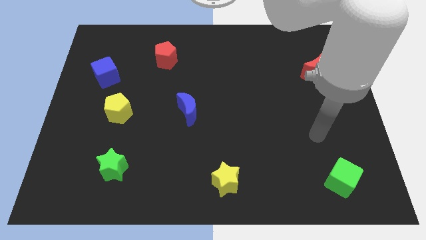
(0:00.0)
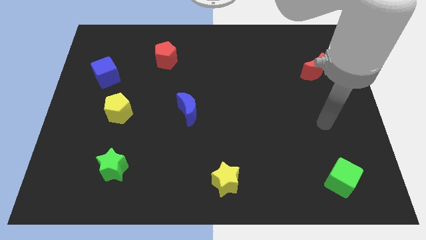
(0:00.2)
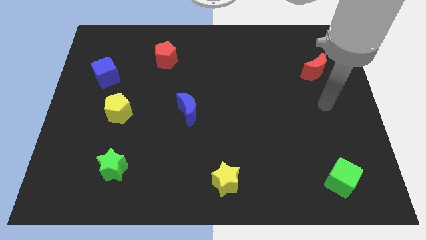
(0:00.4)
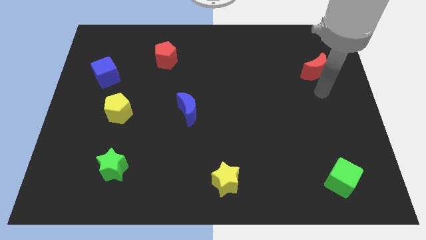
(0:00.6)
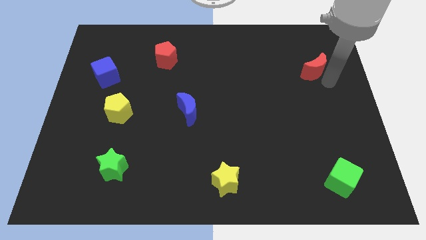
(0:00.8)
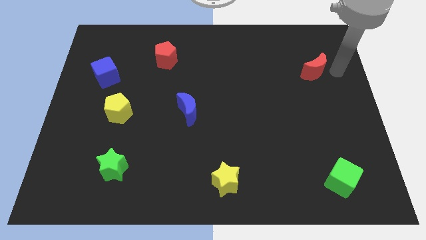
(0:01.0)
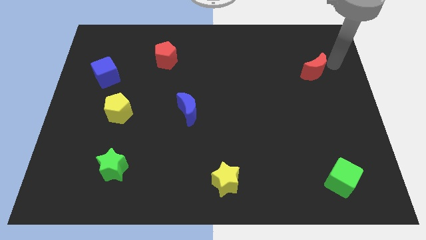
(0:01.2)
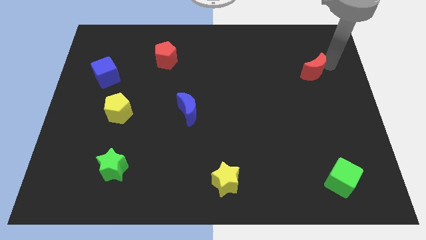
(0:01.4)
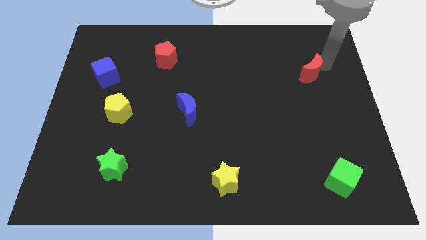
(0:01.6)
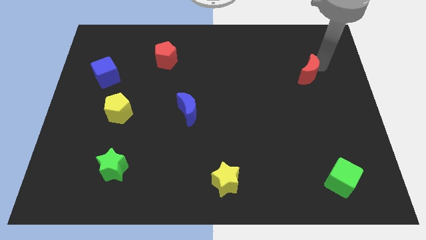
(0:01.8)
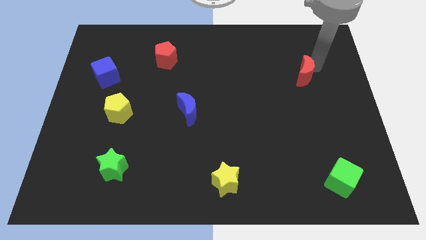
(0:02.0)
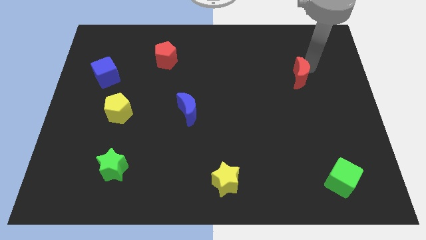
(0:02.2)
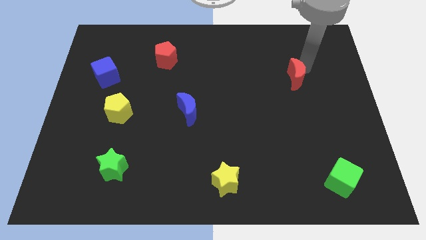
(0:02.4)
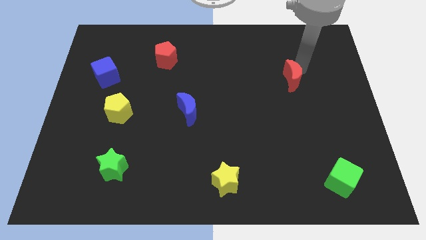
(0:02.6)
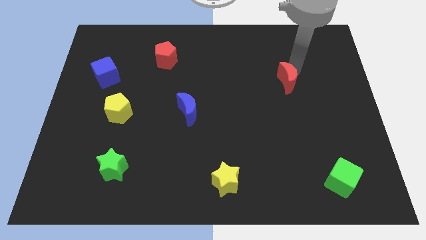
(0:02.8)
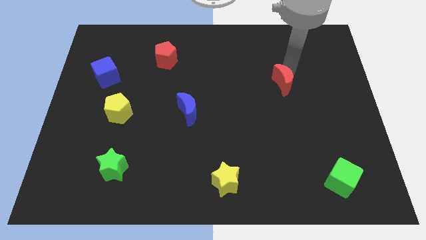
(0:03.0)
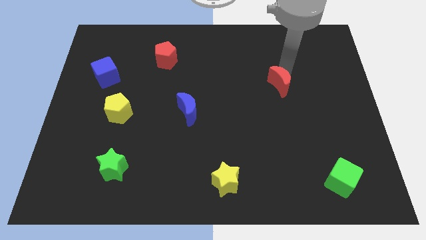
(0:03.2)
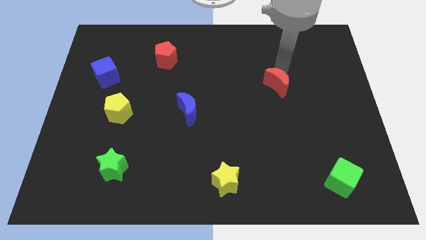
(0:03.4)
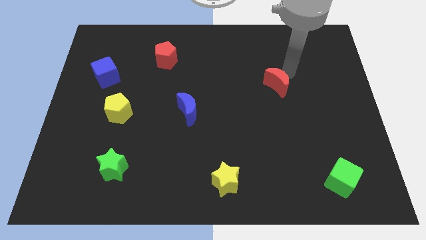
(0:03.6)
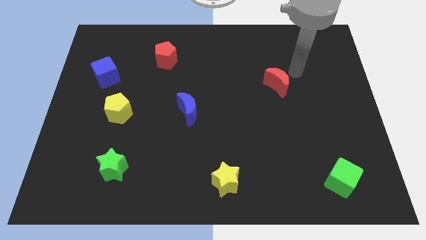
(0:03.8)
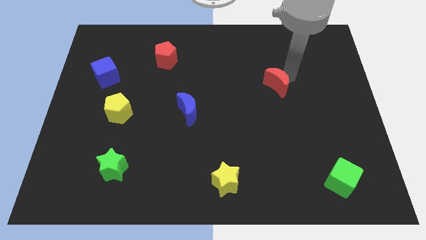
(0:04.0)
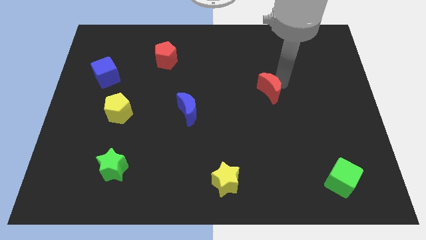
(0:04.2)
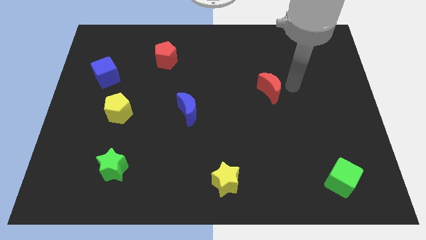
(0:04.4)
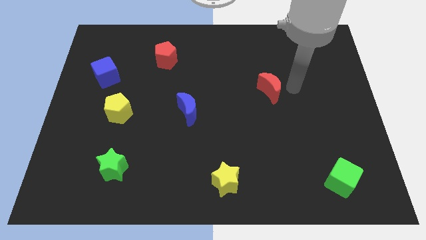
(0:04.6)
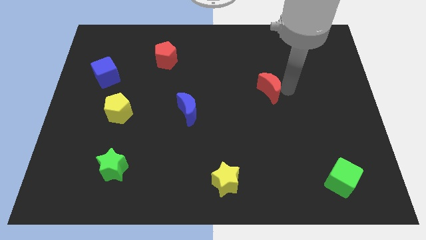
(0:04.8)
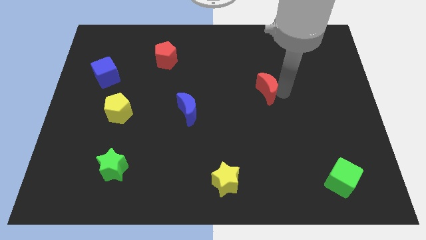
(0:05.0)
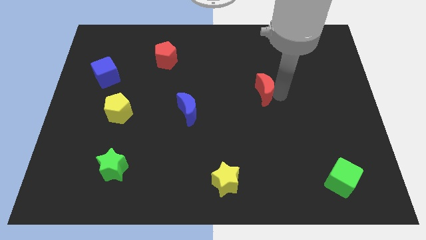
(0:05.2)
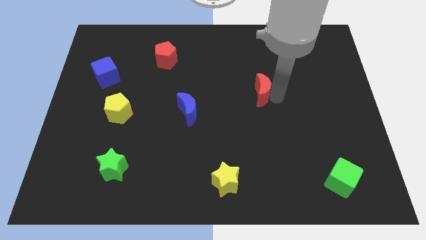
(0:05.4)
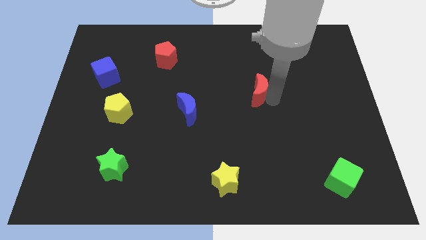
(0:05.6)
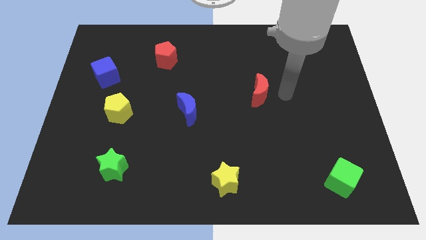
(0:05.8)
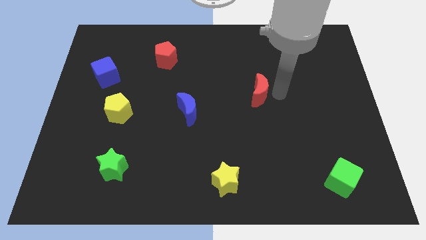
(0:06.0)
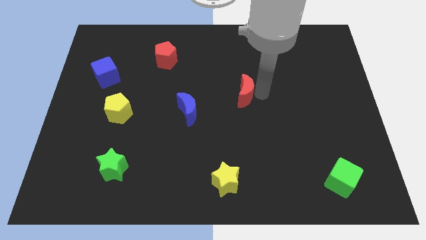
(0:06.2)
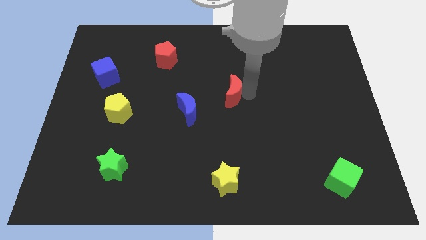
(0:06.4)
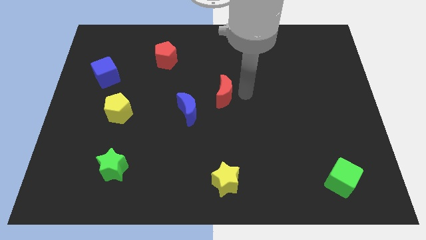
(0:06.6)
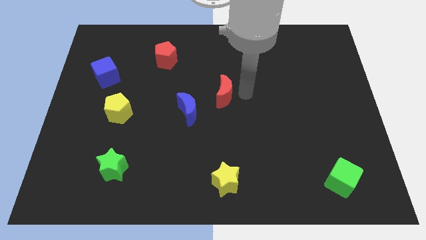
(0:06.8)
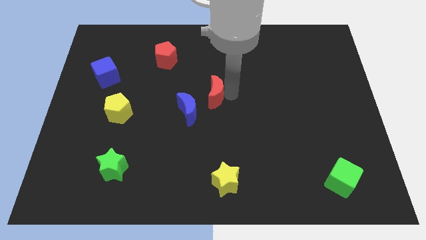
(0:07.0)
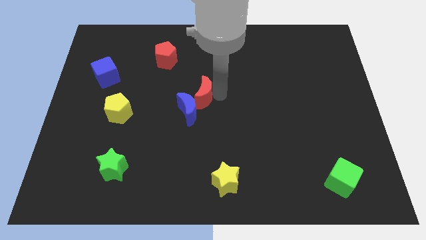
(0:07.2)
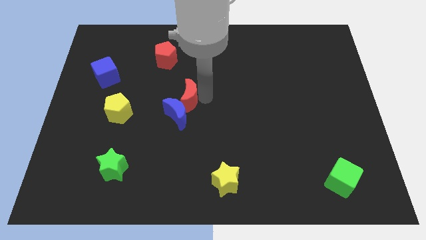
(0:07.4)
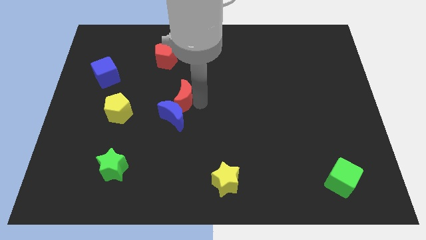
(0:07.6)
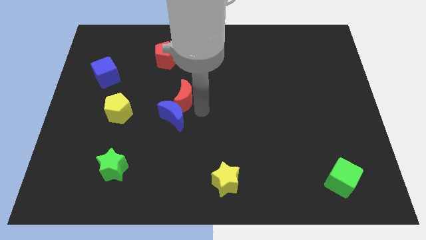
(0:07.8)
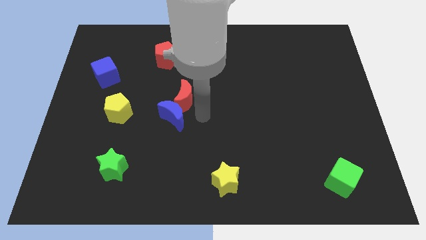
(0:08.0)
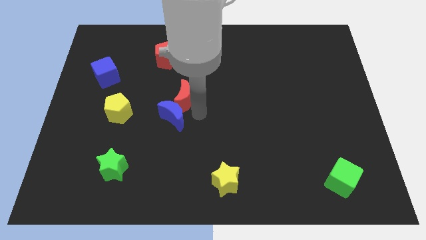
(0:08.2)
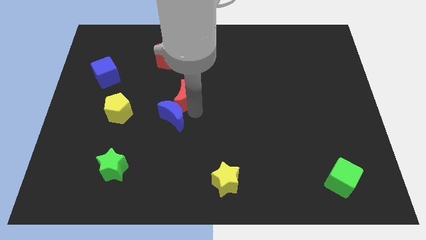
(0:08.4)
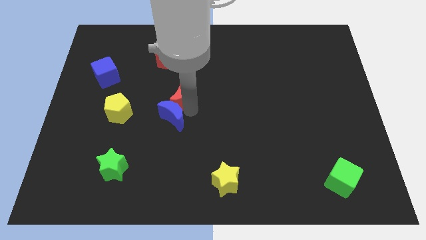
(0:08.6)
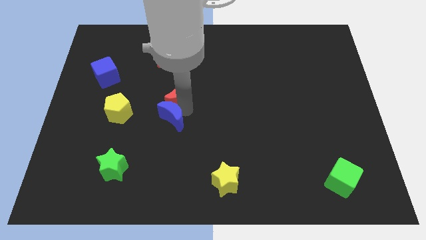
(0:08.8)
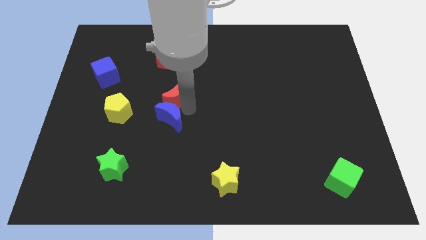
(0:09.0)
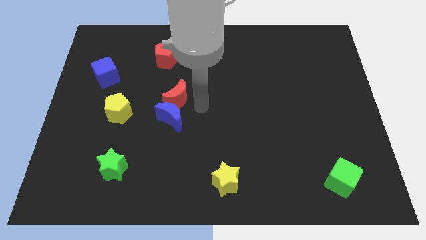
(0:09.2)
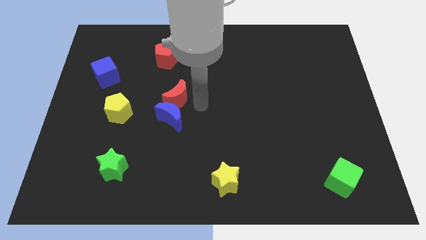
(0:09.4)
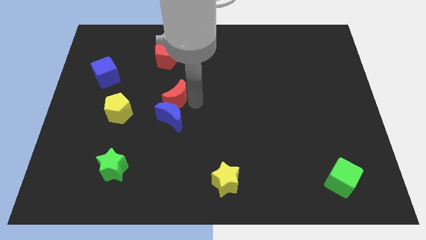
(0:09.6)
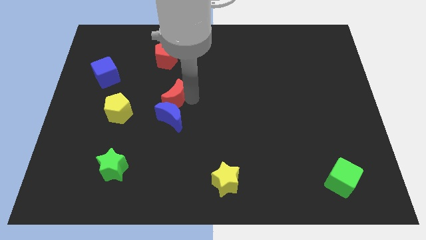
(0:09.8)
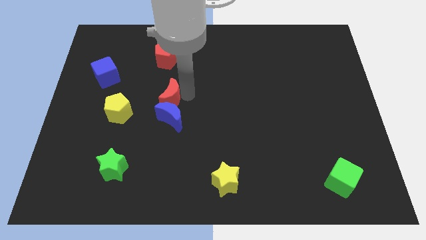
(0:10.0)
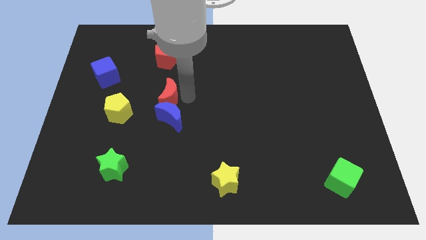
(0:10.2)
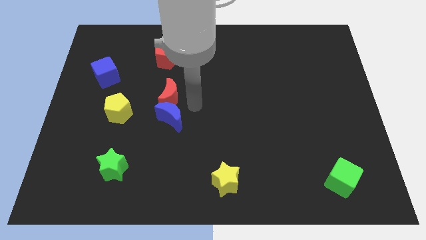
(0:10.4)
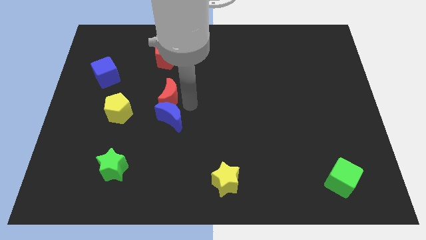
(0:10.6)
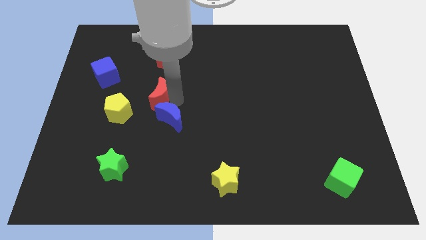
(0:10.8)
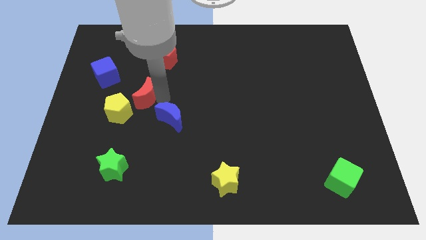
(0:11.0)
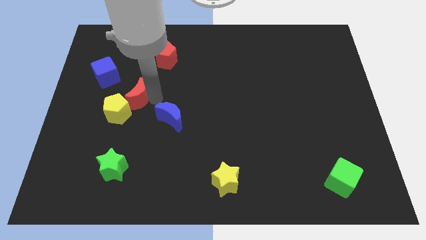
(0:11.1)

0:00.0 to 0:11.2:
put the red moon to the bottom right side of the blue cube

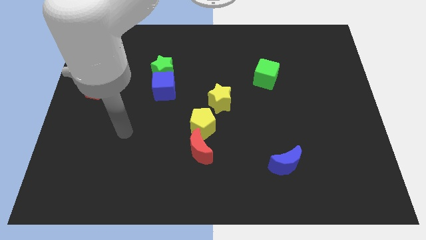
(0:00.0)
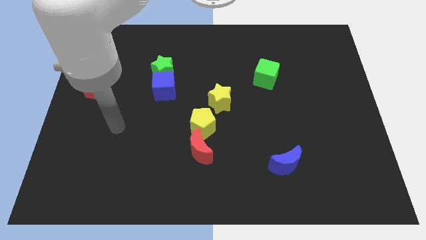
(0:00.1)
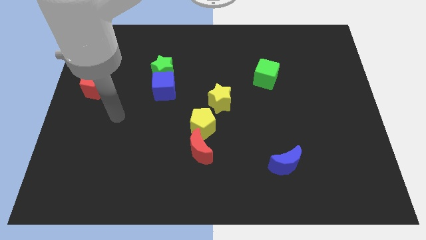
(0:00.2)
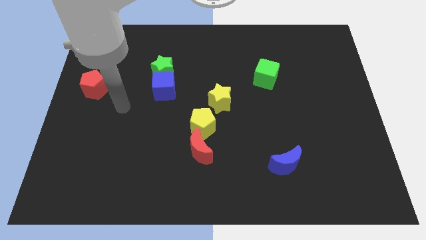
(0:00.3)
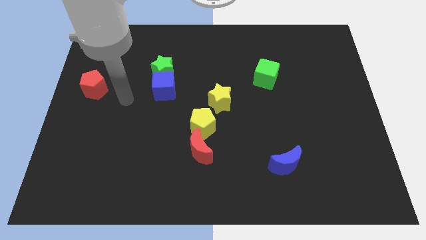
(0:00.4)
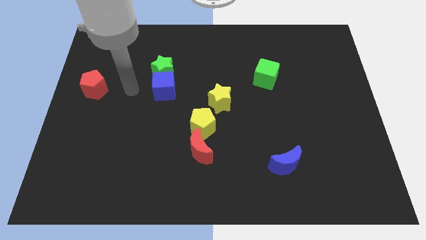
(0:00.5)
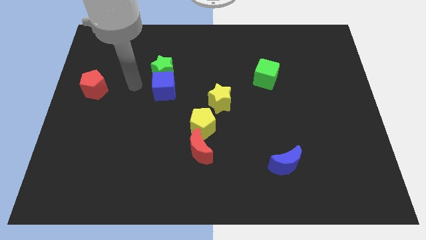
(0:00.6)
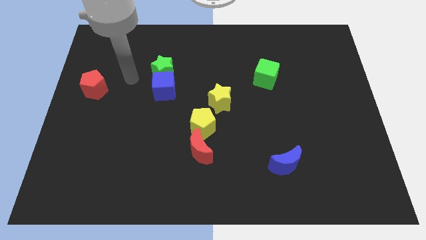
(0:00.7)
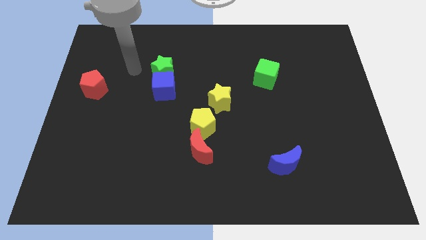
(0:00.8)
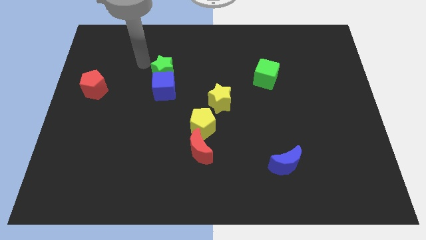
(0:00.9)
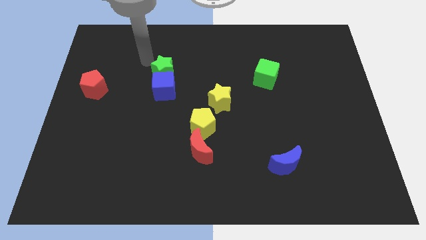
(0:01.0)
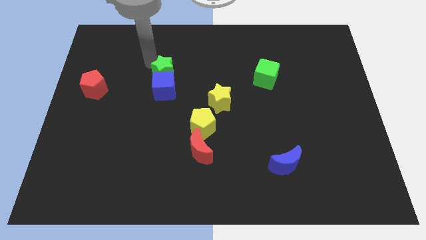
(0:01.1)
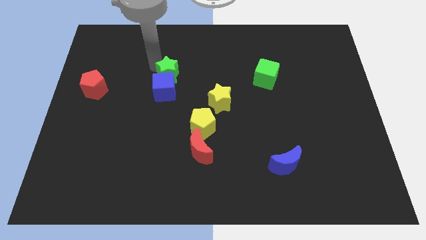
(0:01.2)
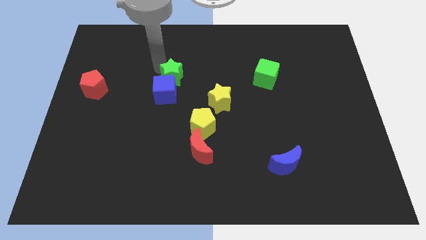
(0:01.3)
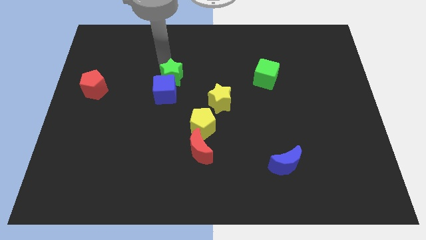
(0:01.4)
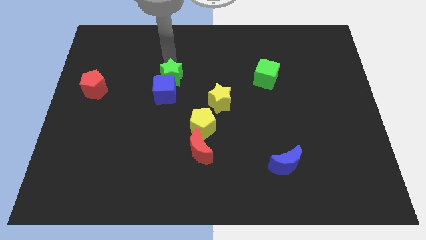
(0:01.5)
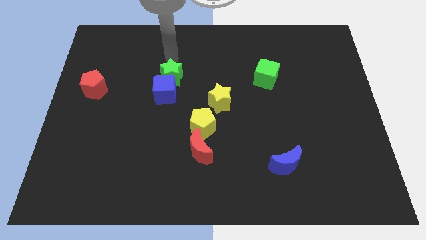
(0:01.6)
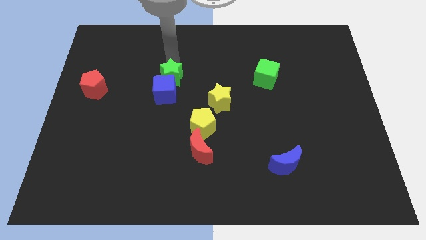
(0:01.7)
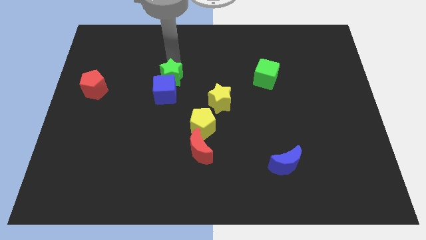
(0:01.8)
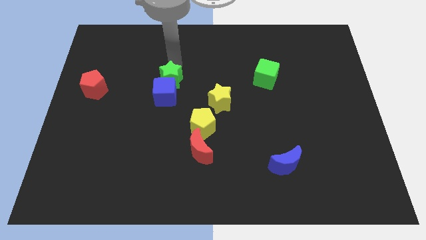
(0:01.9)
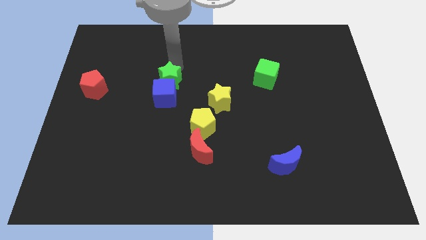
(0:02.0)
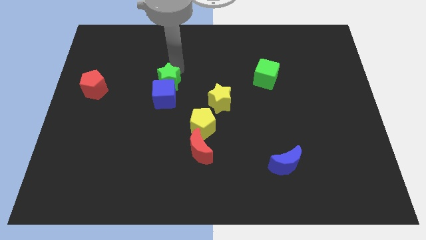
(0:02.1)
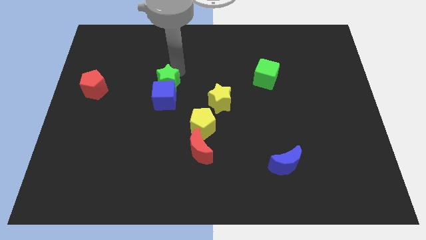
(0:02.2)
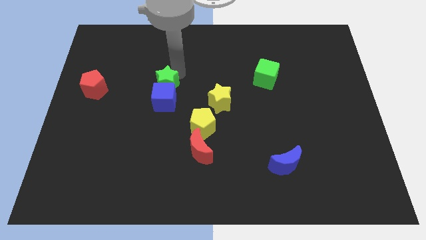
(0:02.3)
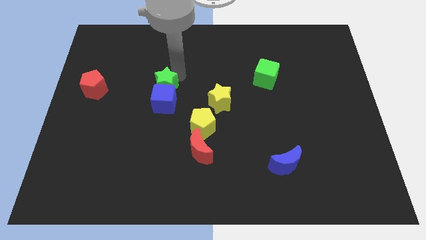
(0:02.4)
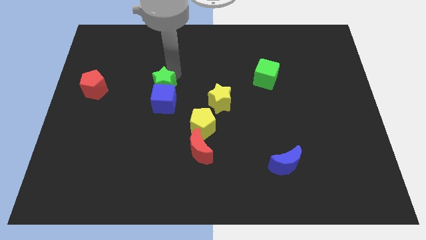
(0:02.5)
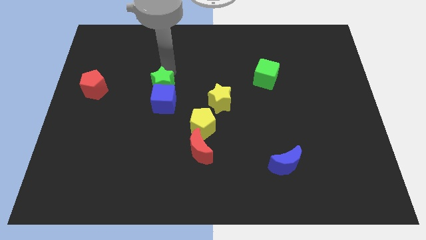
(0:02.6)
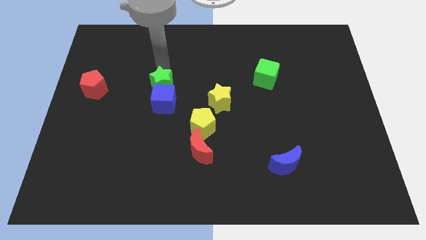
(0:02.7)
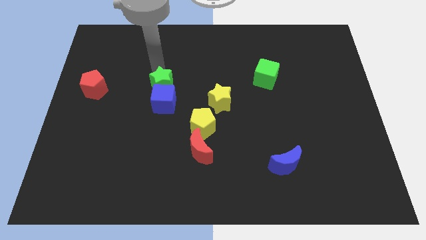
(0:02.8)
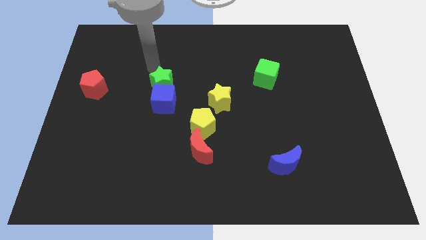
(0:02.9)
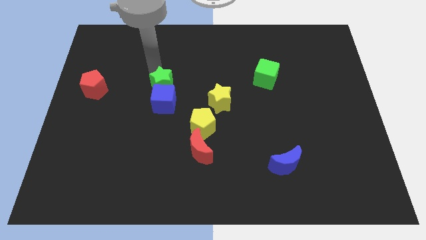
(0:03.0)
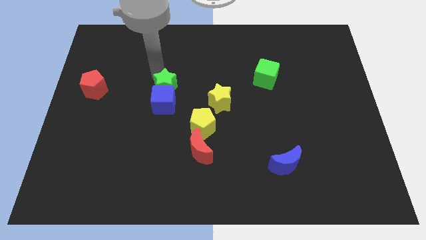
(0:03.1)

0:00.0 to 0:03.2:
move the green star to the left side of the yellow star
